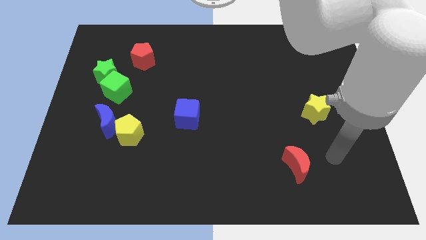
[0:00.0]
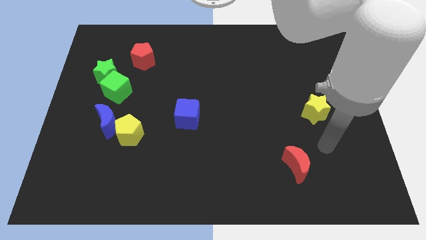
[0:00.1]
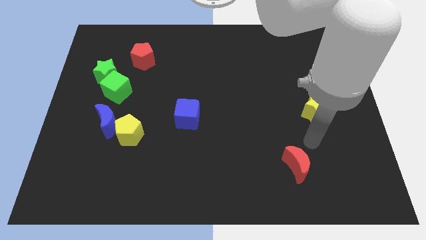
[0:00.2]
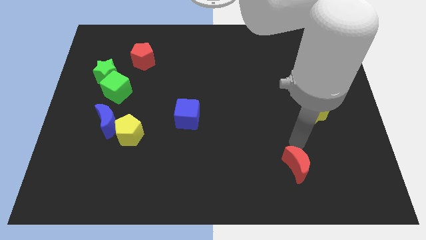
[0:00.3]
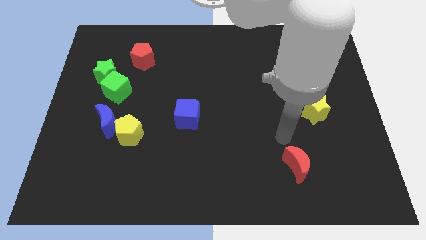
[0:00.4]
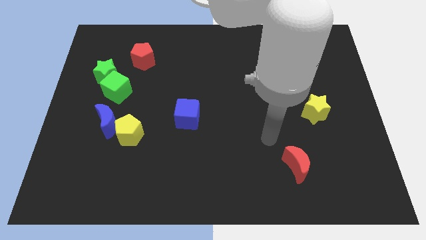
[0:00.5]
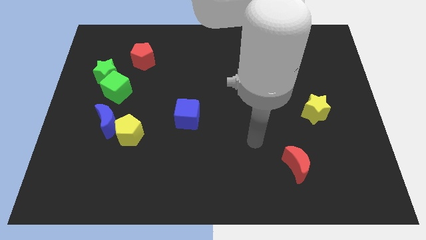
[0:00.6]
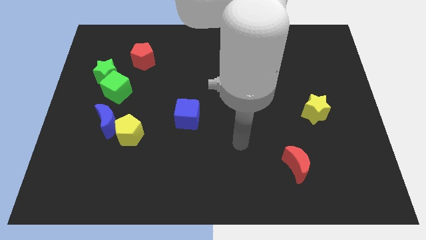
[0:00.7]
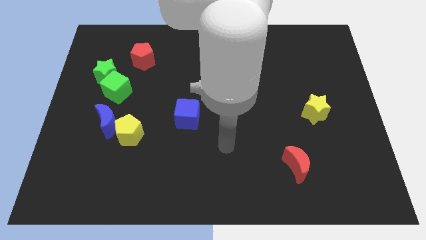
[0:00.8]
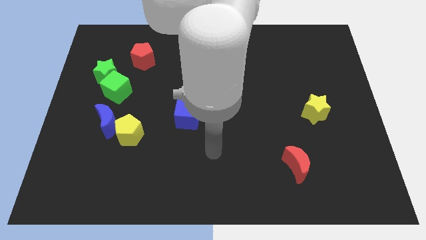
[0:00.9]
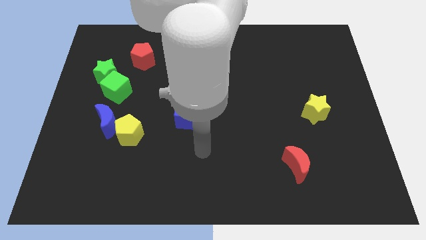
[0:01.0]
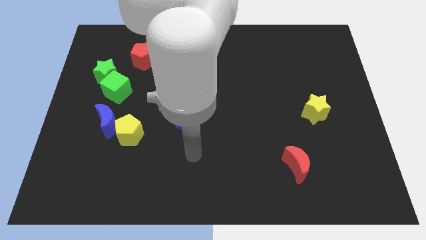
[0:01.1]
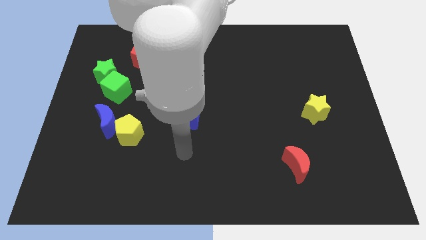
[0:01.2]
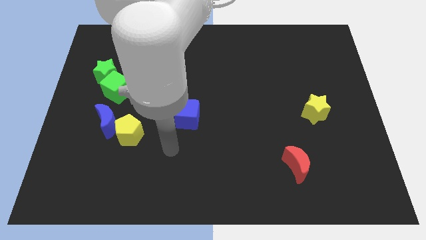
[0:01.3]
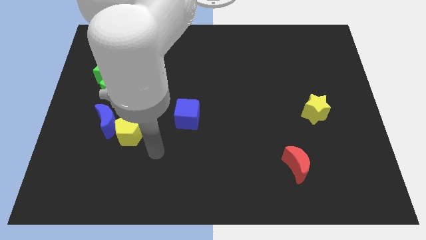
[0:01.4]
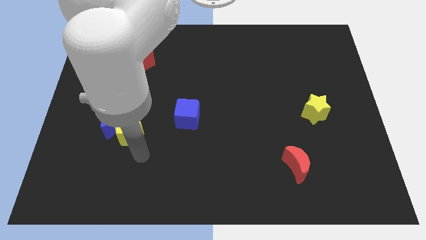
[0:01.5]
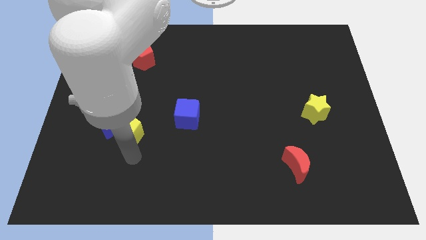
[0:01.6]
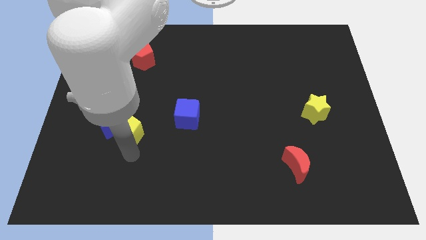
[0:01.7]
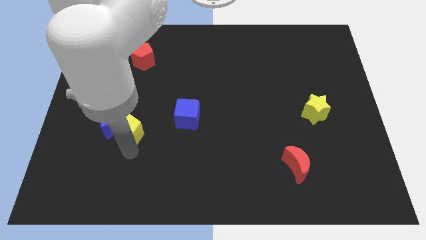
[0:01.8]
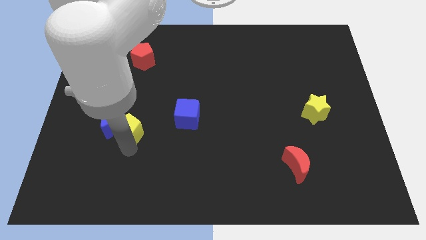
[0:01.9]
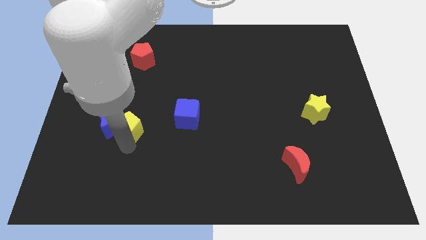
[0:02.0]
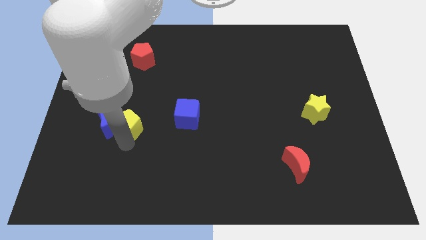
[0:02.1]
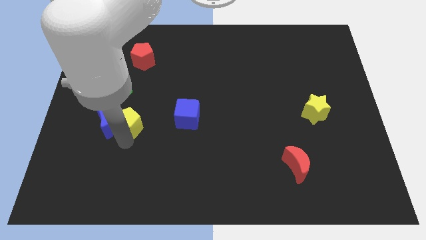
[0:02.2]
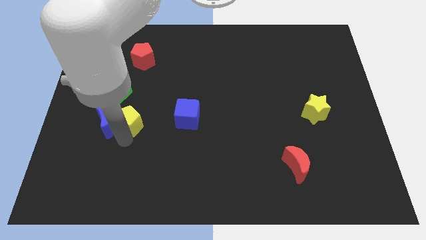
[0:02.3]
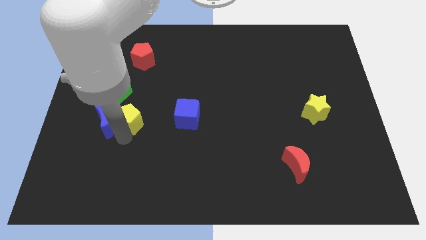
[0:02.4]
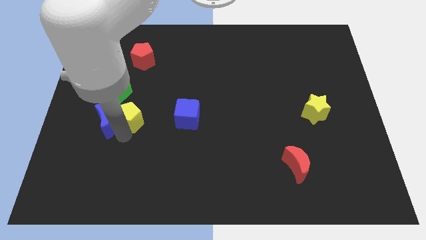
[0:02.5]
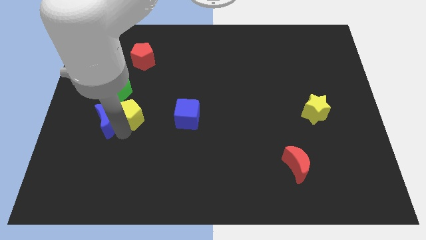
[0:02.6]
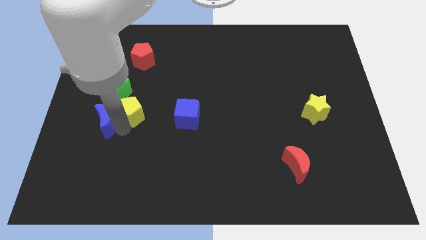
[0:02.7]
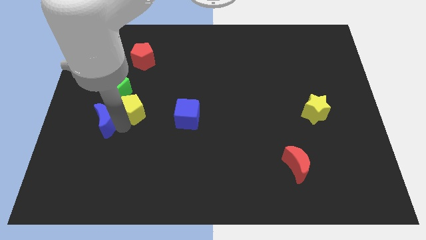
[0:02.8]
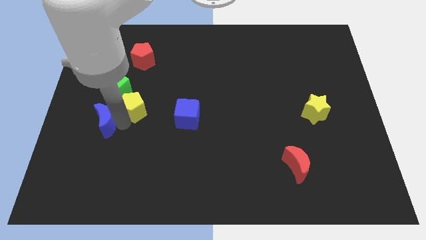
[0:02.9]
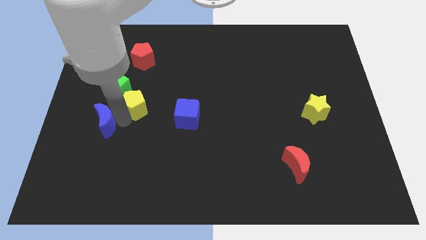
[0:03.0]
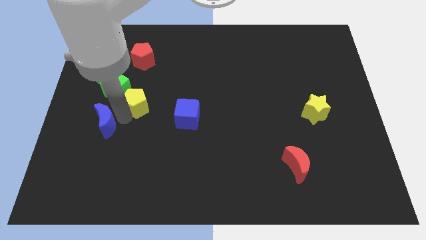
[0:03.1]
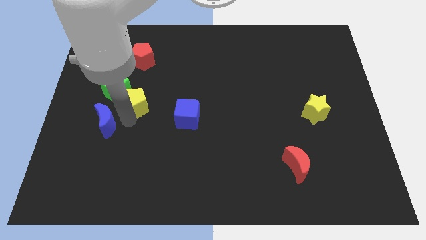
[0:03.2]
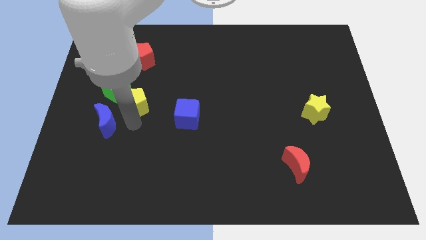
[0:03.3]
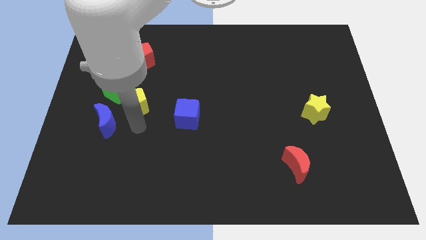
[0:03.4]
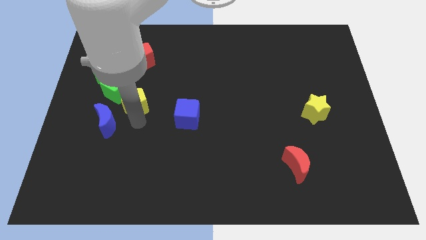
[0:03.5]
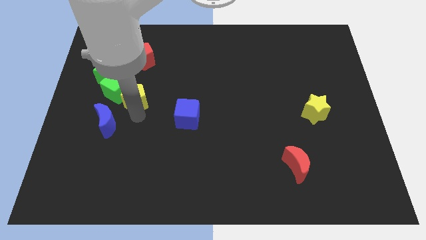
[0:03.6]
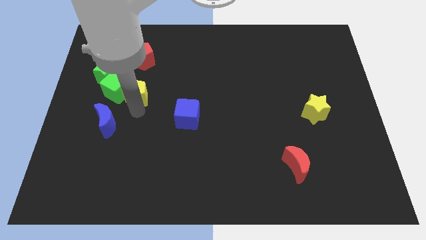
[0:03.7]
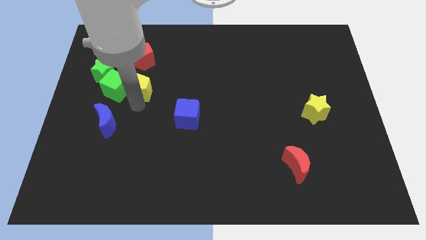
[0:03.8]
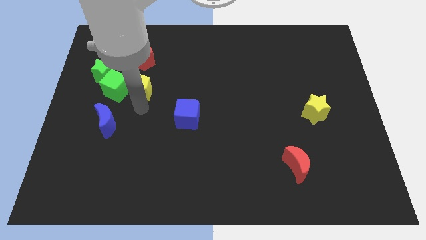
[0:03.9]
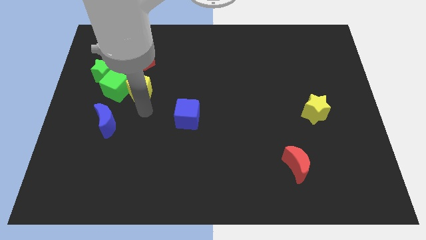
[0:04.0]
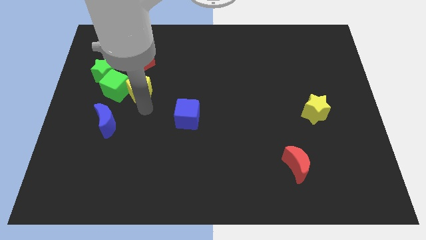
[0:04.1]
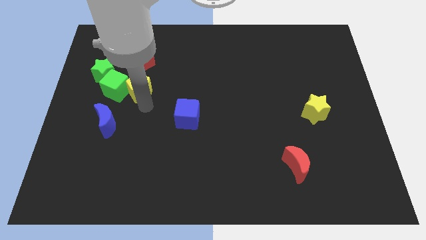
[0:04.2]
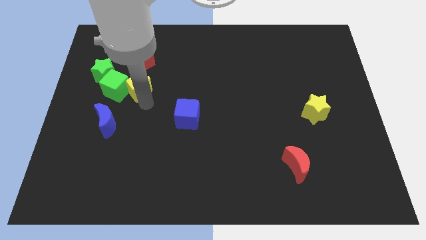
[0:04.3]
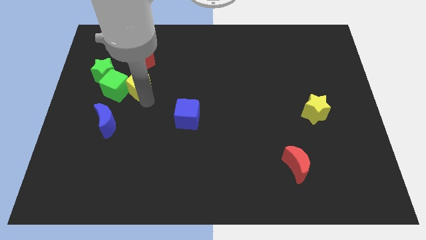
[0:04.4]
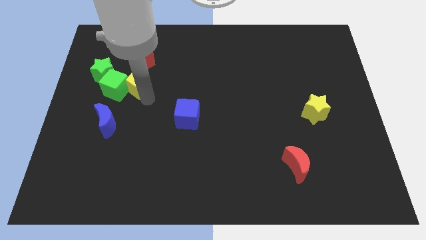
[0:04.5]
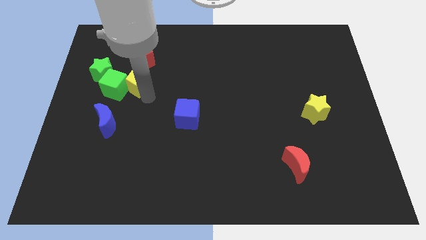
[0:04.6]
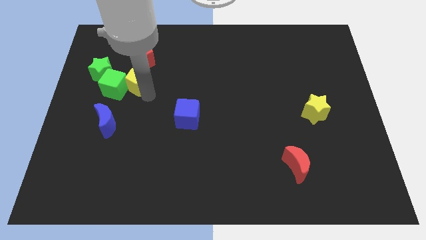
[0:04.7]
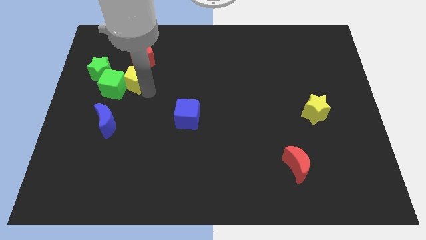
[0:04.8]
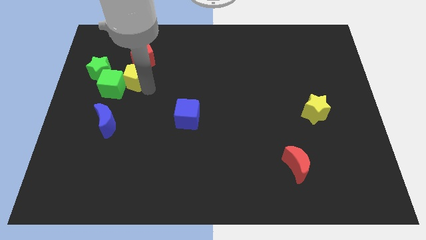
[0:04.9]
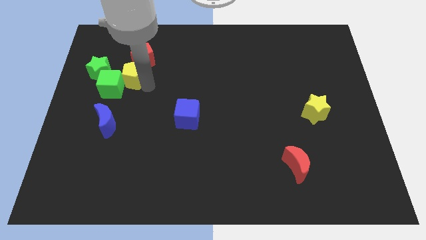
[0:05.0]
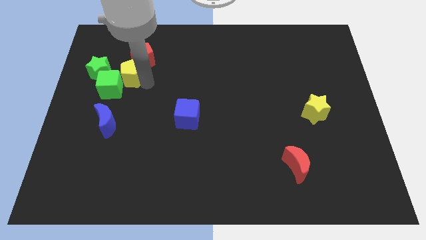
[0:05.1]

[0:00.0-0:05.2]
put the yellow pentagon to the top side of the green cube

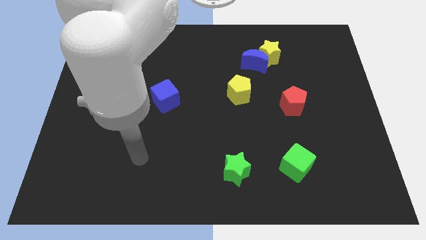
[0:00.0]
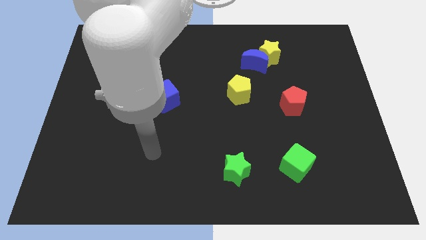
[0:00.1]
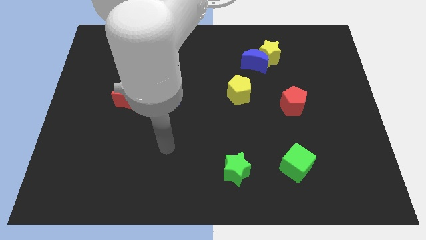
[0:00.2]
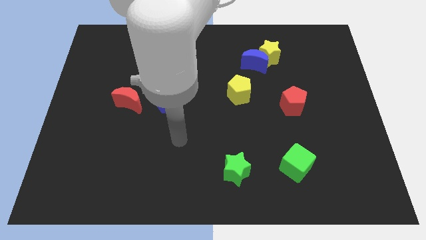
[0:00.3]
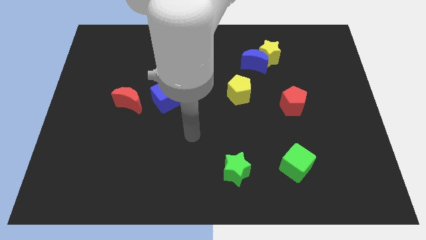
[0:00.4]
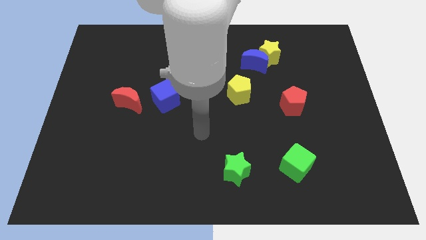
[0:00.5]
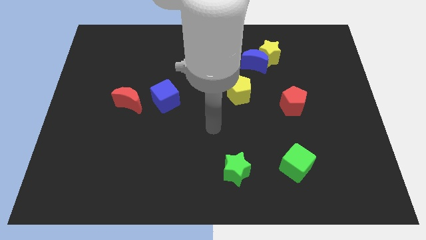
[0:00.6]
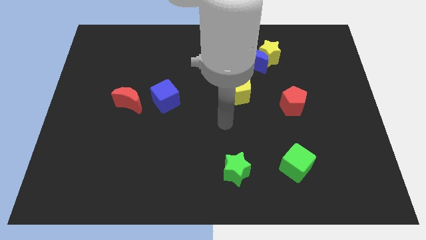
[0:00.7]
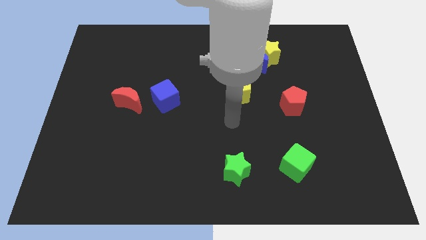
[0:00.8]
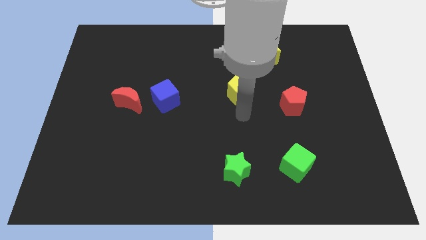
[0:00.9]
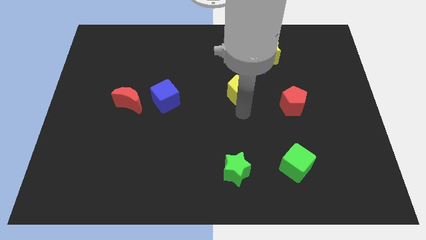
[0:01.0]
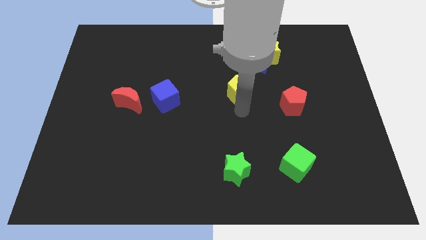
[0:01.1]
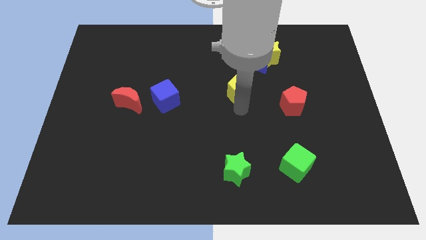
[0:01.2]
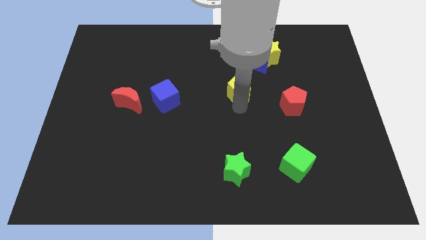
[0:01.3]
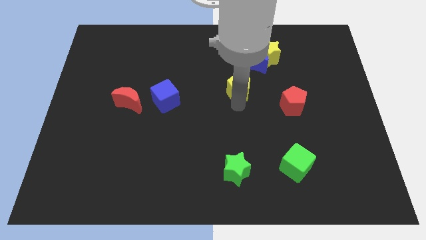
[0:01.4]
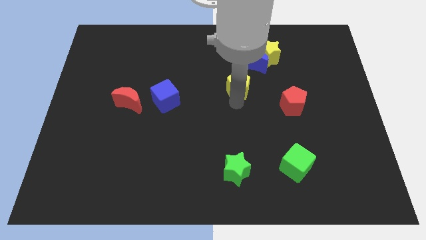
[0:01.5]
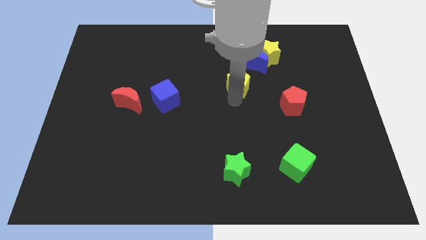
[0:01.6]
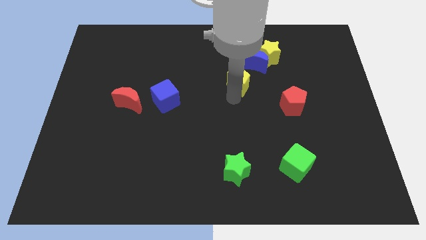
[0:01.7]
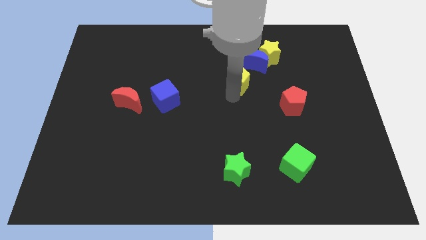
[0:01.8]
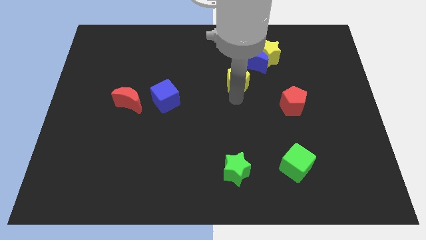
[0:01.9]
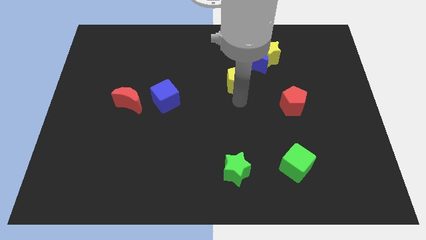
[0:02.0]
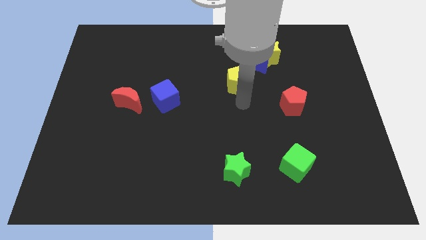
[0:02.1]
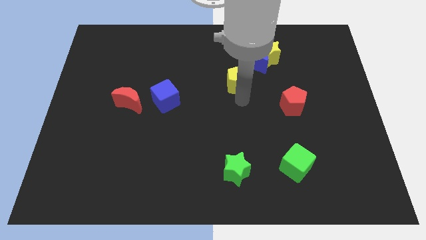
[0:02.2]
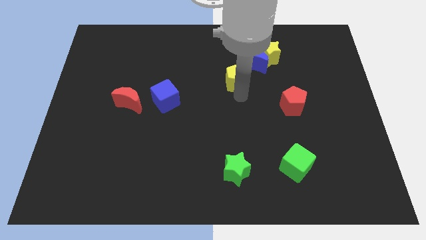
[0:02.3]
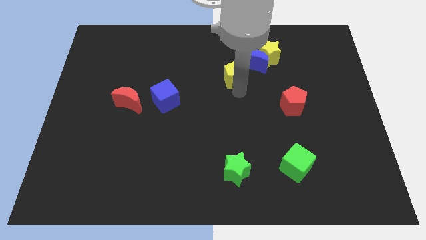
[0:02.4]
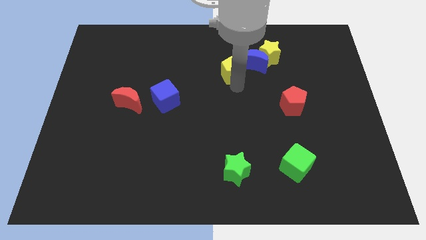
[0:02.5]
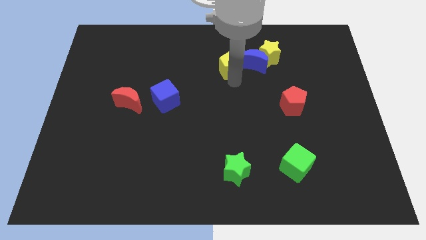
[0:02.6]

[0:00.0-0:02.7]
put the yellow pentagon to the left of the yellow star
